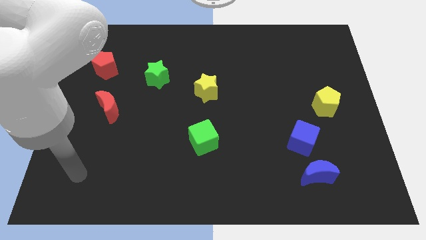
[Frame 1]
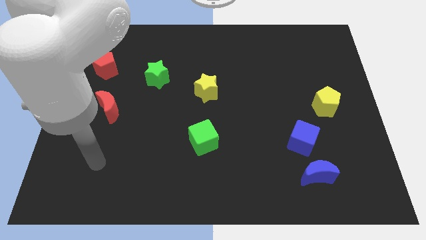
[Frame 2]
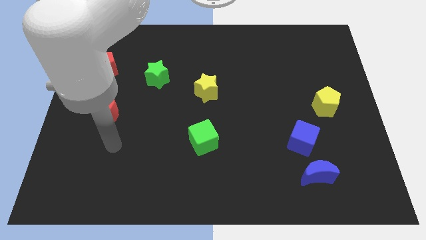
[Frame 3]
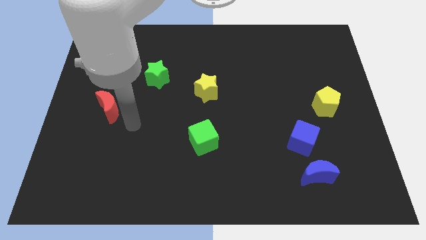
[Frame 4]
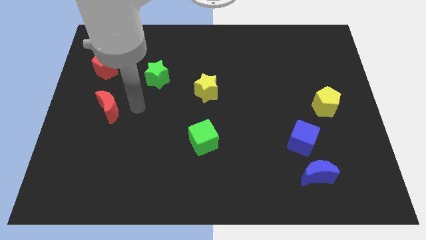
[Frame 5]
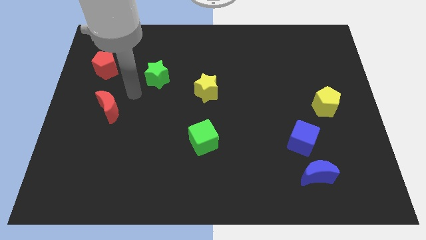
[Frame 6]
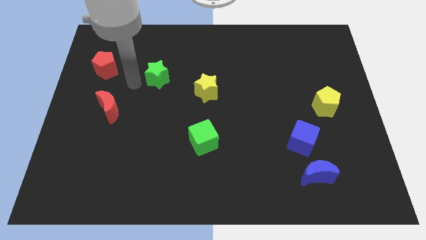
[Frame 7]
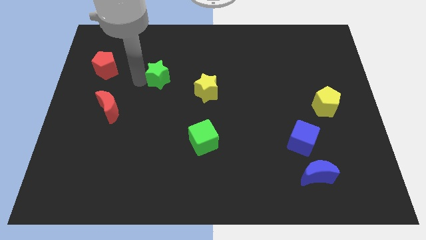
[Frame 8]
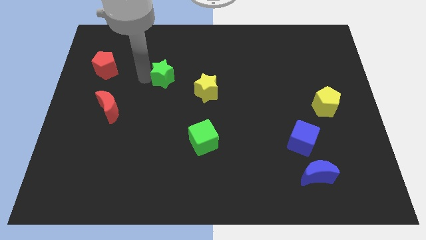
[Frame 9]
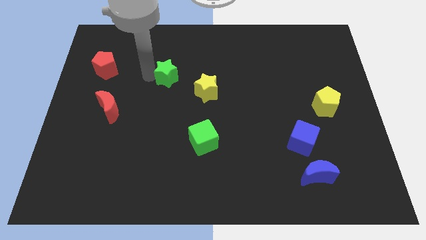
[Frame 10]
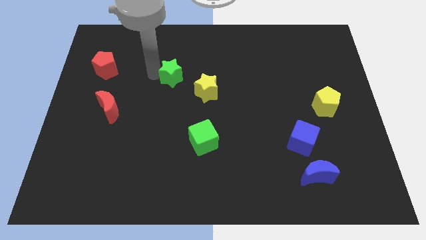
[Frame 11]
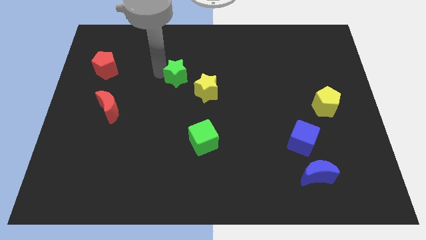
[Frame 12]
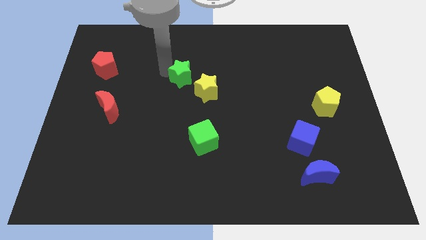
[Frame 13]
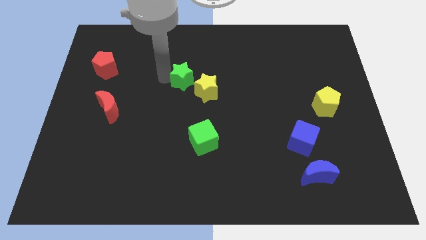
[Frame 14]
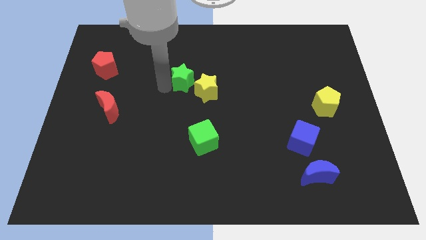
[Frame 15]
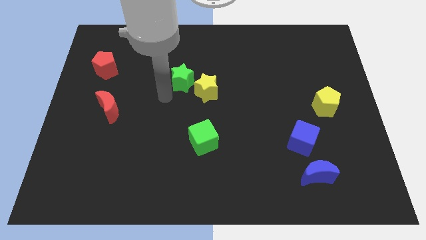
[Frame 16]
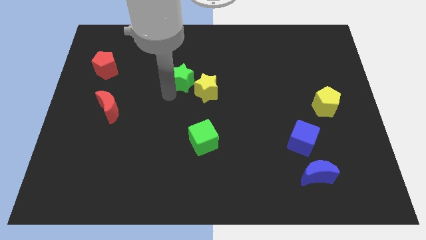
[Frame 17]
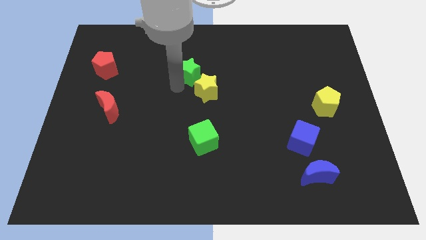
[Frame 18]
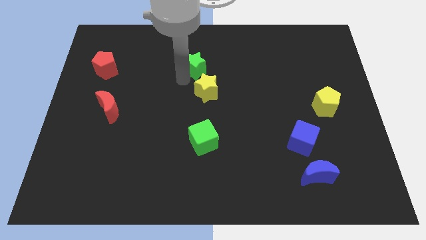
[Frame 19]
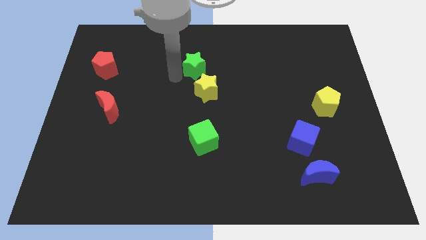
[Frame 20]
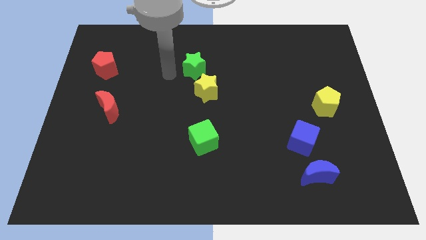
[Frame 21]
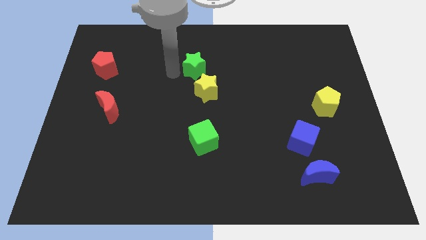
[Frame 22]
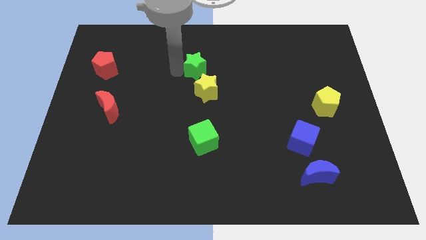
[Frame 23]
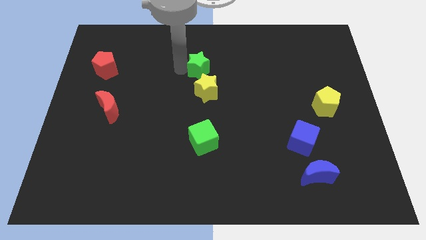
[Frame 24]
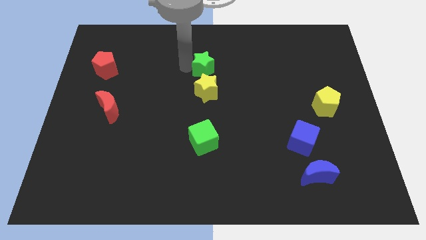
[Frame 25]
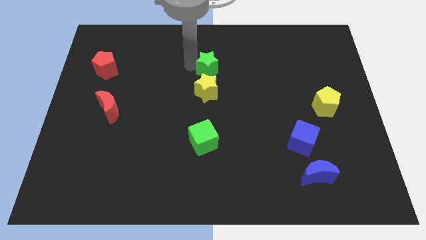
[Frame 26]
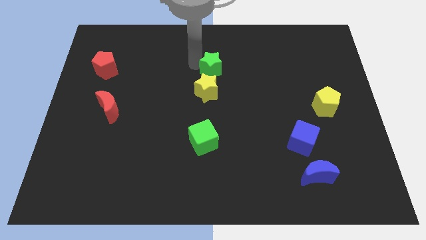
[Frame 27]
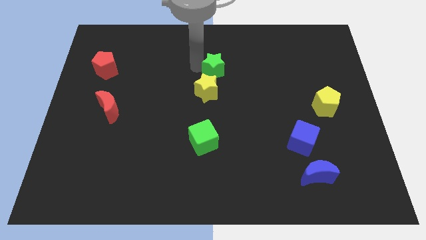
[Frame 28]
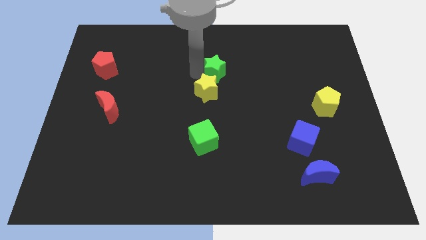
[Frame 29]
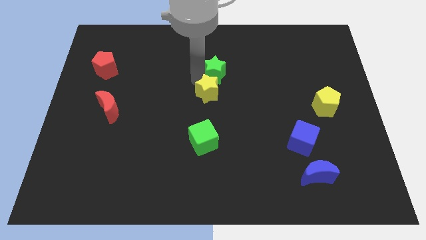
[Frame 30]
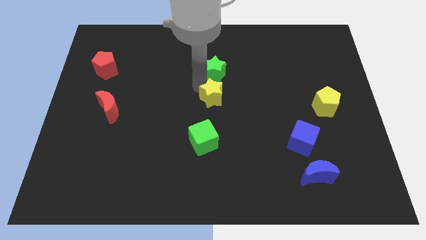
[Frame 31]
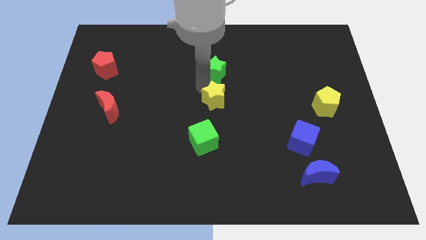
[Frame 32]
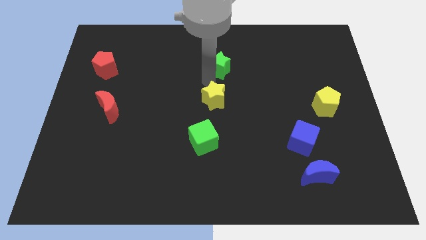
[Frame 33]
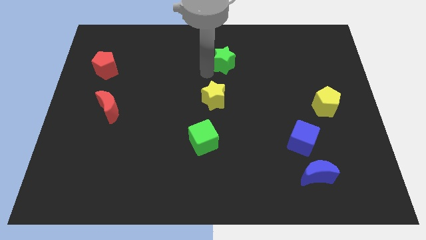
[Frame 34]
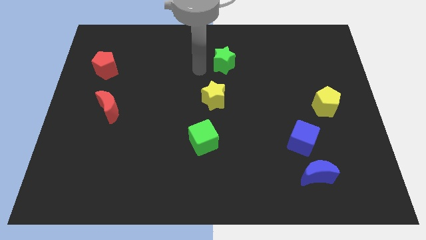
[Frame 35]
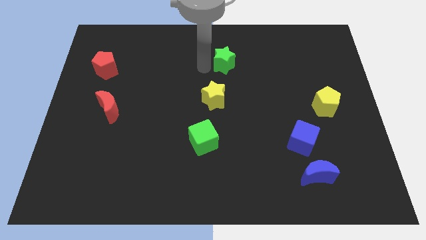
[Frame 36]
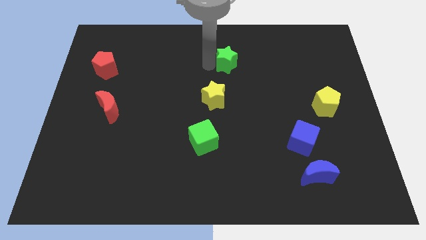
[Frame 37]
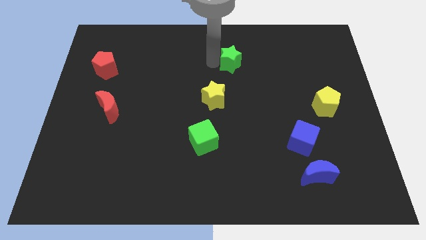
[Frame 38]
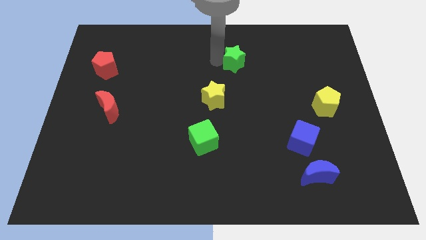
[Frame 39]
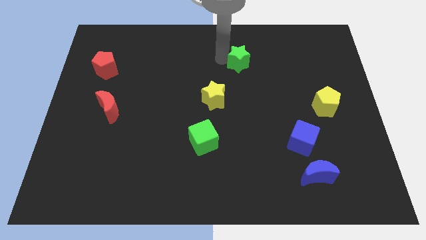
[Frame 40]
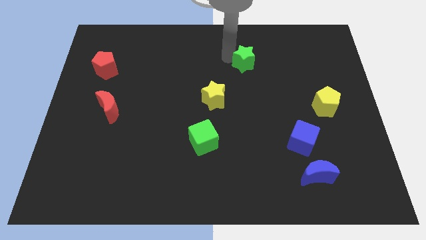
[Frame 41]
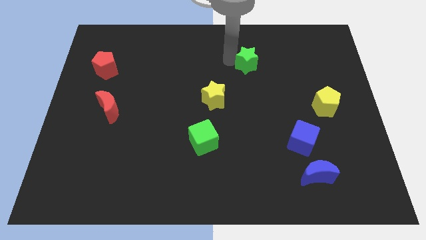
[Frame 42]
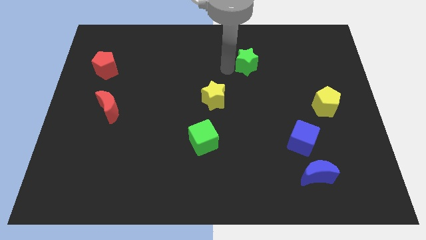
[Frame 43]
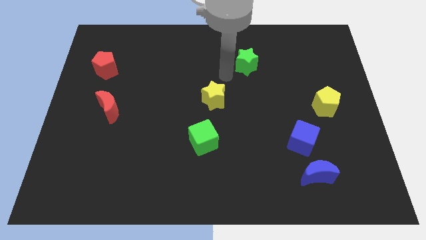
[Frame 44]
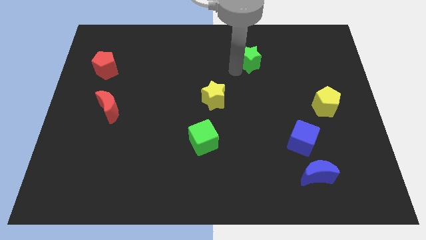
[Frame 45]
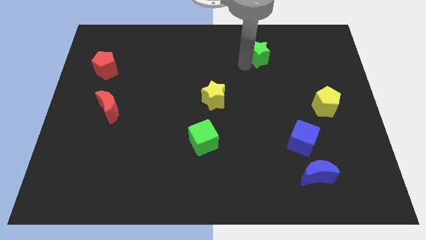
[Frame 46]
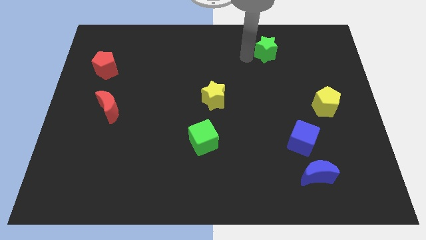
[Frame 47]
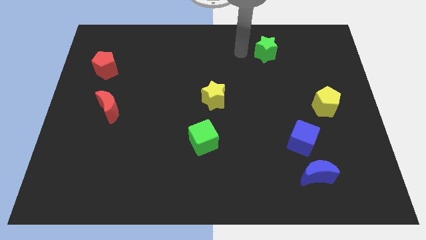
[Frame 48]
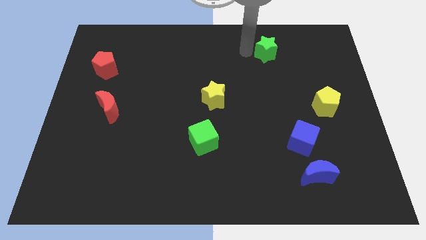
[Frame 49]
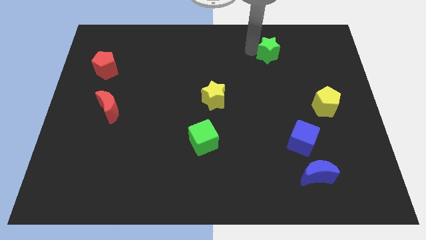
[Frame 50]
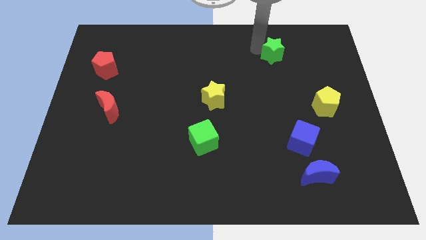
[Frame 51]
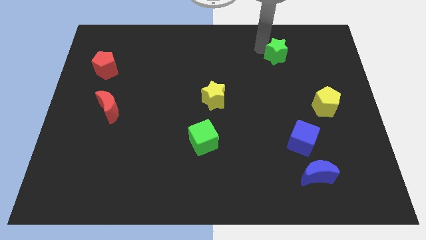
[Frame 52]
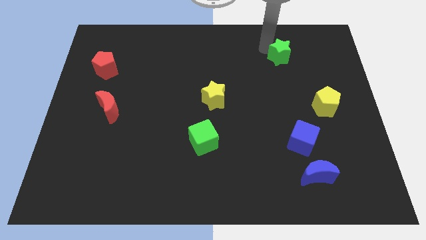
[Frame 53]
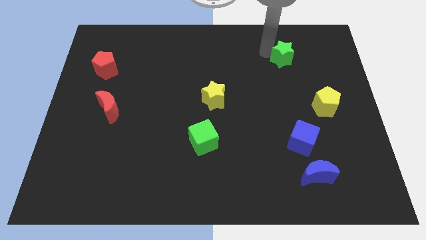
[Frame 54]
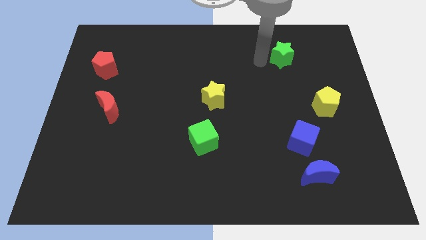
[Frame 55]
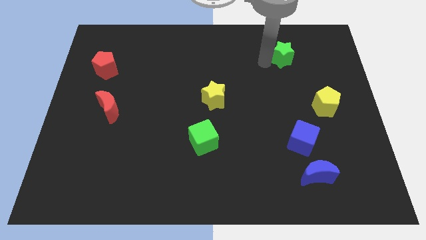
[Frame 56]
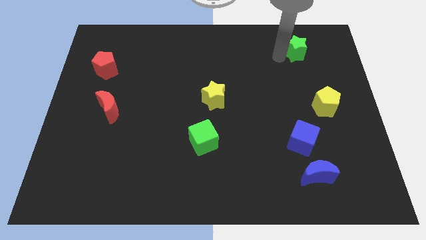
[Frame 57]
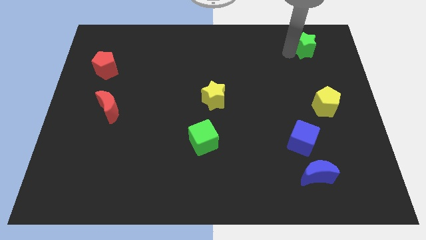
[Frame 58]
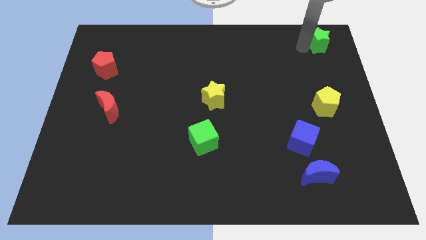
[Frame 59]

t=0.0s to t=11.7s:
slide the green star to the top right
